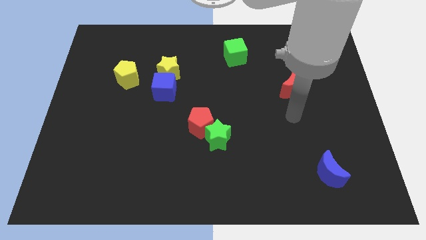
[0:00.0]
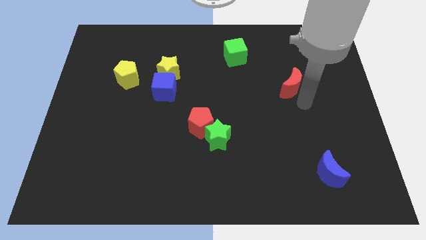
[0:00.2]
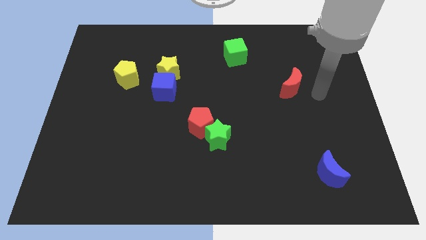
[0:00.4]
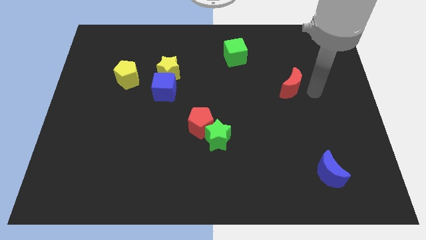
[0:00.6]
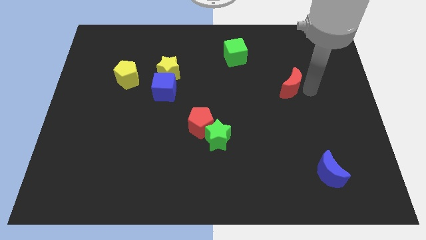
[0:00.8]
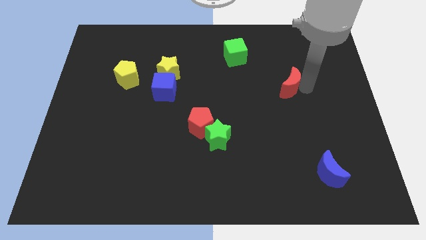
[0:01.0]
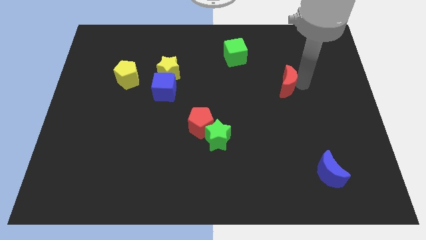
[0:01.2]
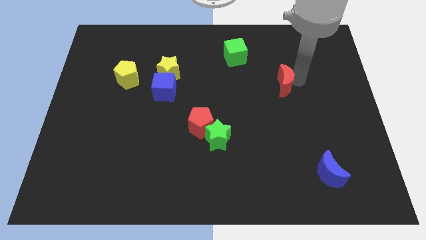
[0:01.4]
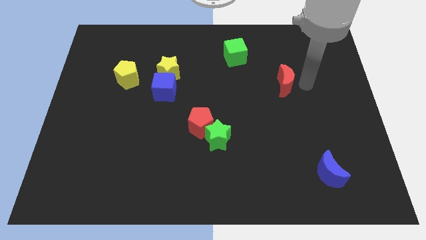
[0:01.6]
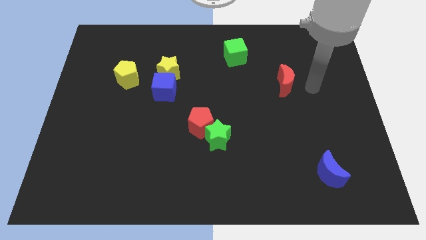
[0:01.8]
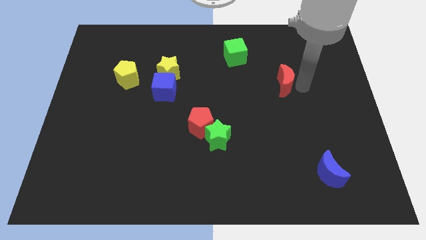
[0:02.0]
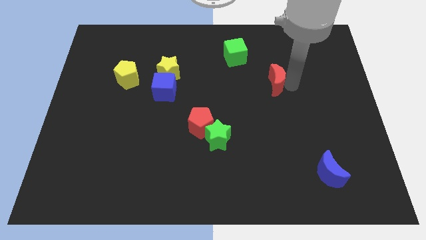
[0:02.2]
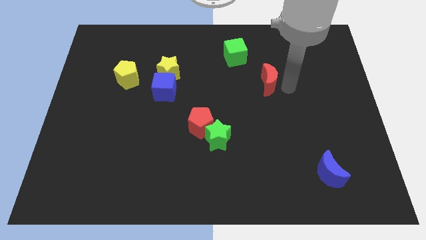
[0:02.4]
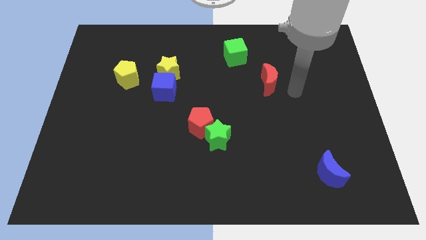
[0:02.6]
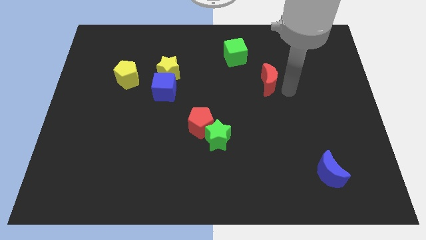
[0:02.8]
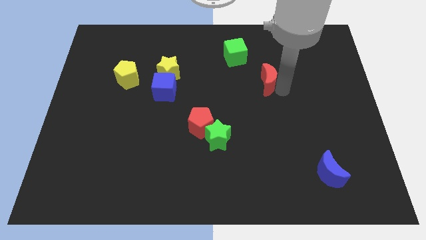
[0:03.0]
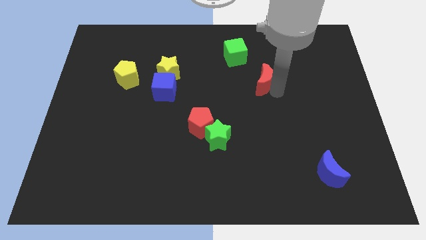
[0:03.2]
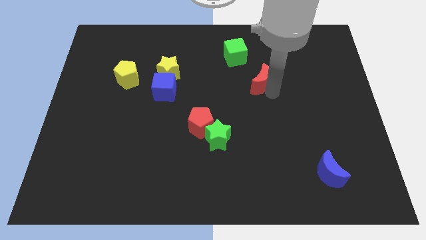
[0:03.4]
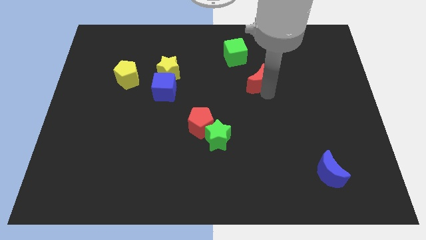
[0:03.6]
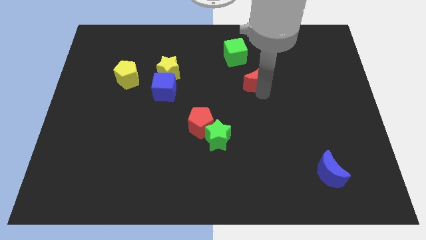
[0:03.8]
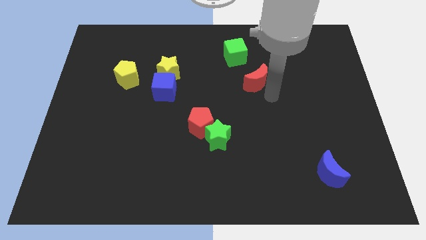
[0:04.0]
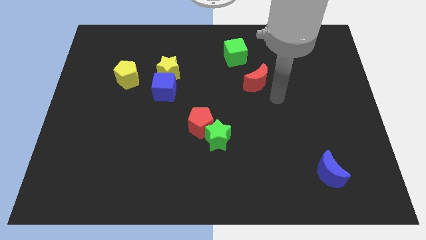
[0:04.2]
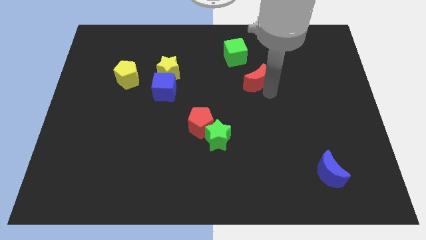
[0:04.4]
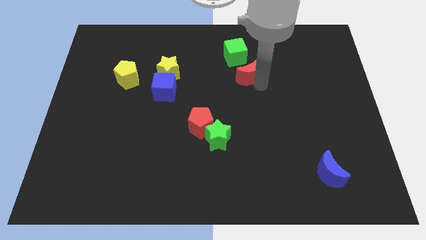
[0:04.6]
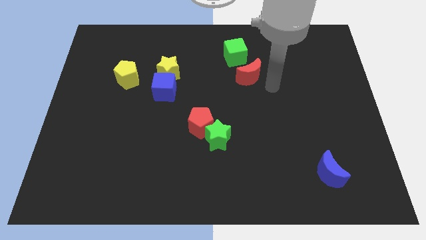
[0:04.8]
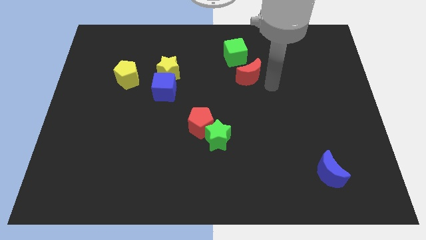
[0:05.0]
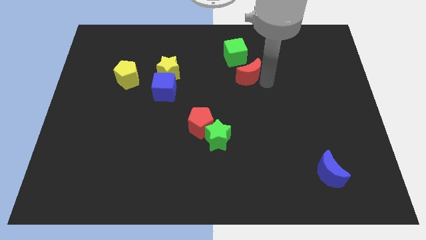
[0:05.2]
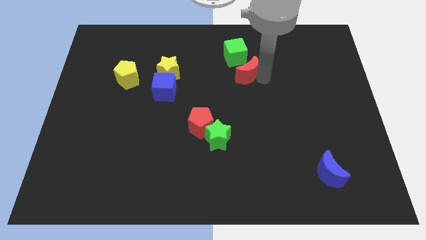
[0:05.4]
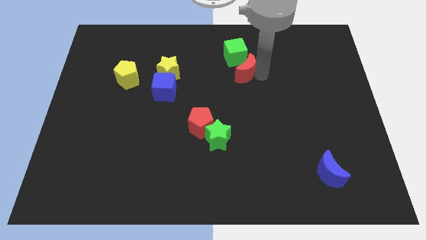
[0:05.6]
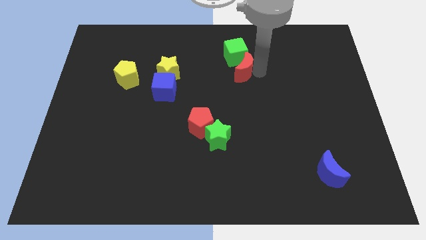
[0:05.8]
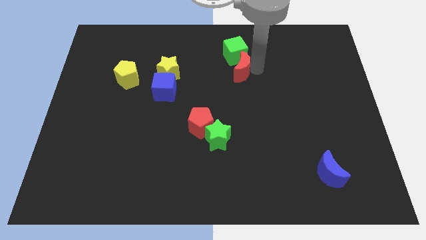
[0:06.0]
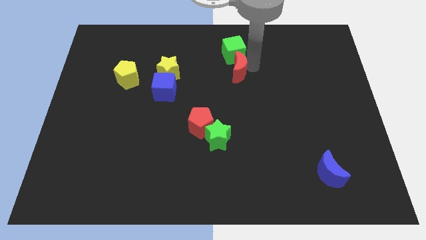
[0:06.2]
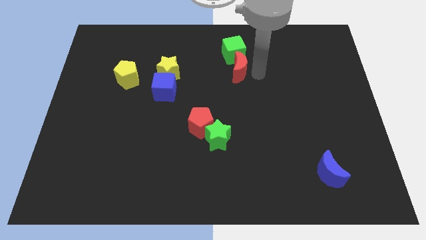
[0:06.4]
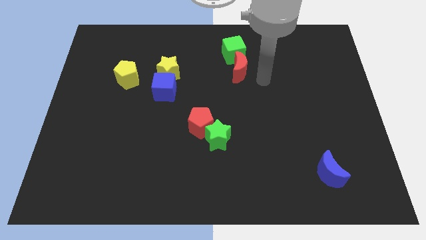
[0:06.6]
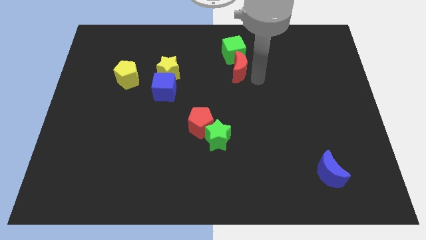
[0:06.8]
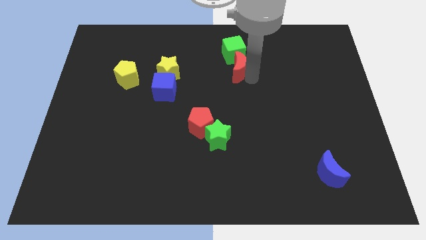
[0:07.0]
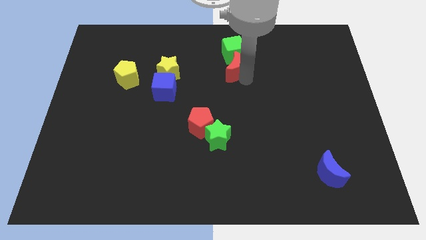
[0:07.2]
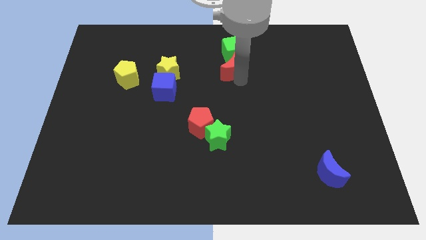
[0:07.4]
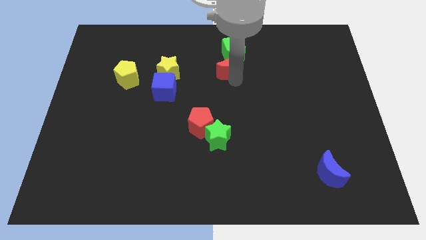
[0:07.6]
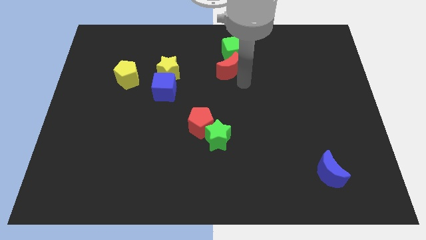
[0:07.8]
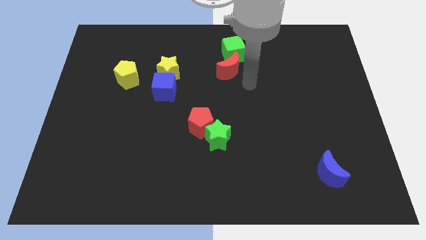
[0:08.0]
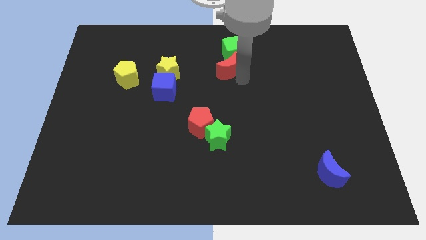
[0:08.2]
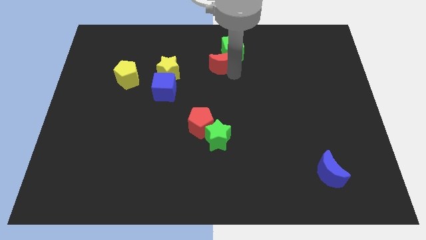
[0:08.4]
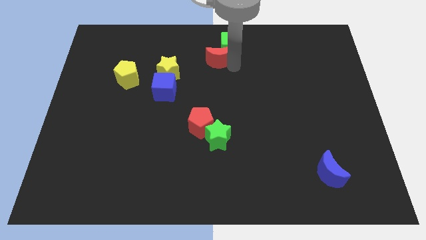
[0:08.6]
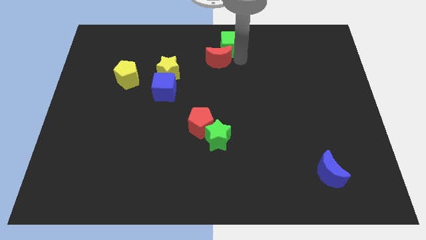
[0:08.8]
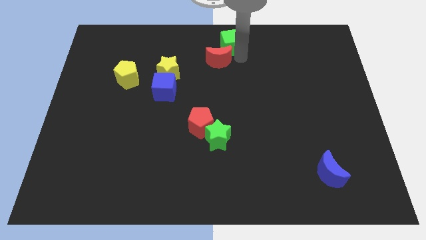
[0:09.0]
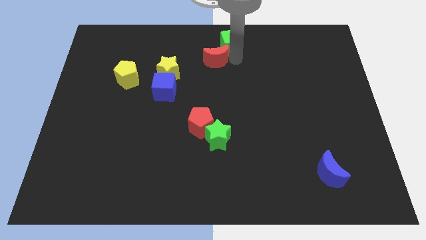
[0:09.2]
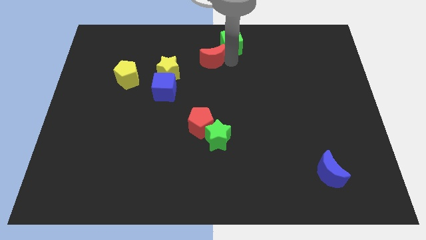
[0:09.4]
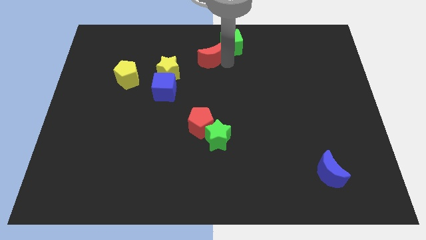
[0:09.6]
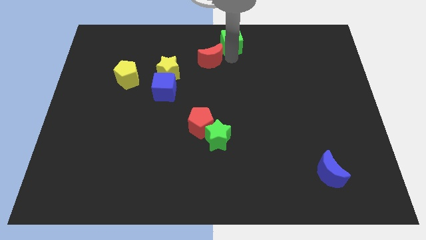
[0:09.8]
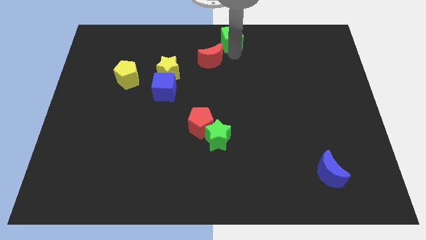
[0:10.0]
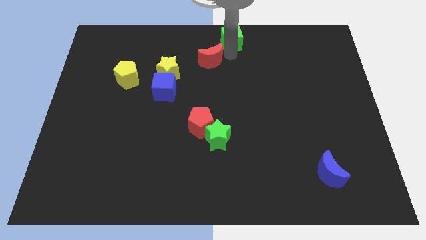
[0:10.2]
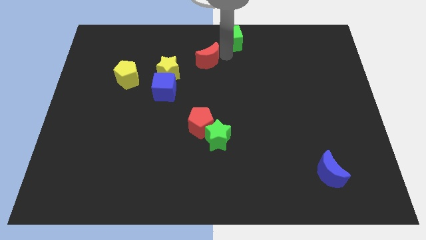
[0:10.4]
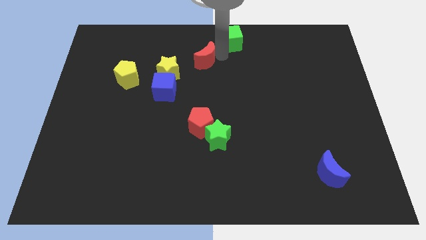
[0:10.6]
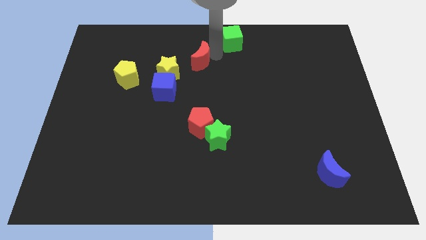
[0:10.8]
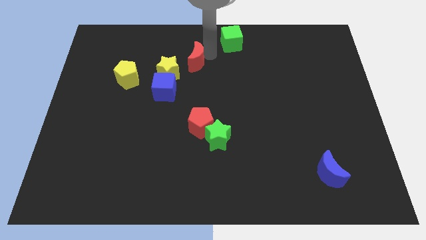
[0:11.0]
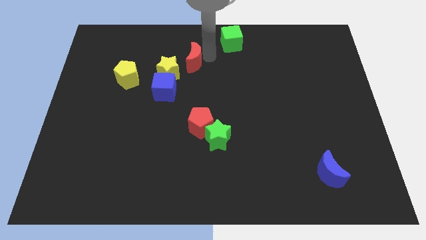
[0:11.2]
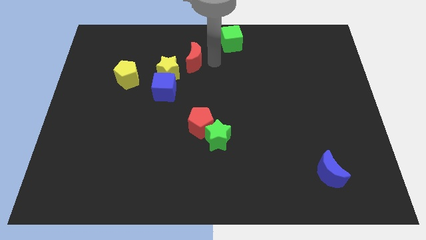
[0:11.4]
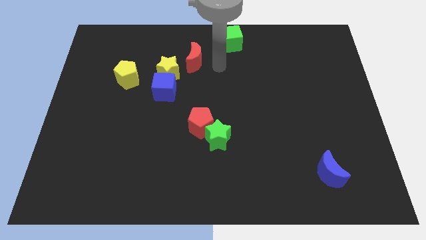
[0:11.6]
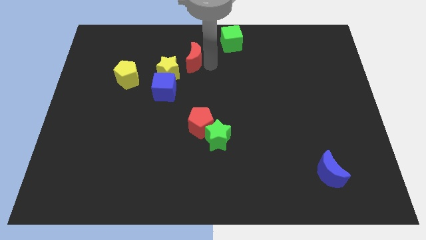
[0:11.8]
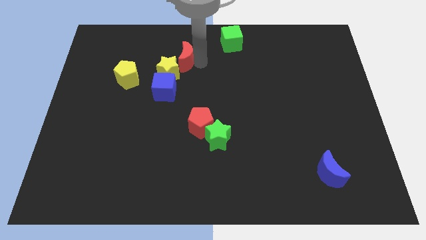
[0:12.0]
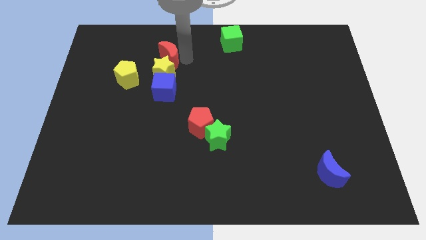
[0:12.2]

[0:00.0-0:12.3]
move the red moon to the top left side of the yellow star
